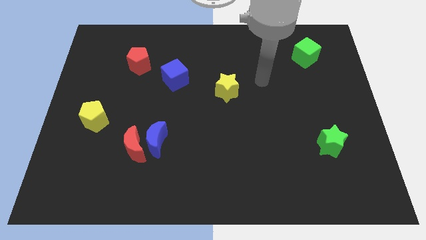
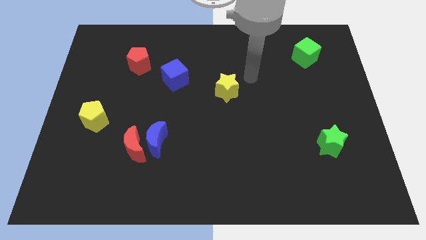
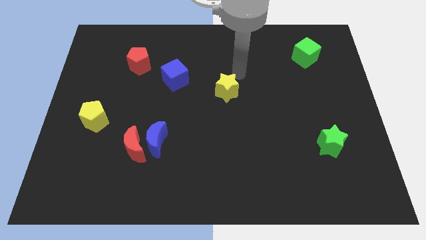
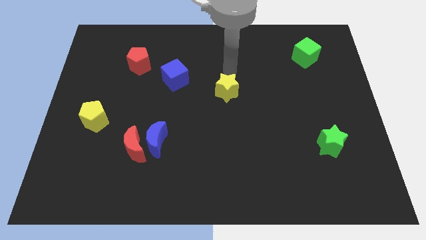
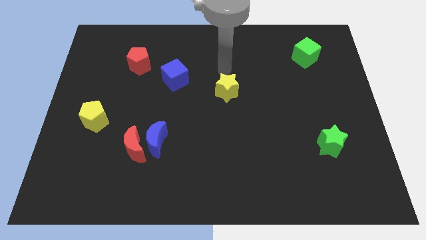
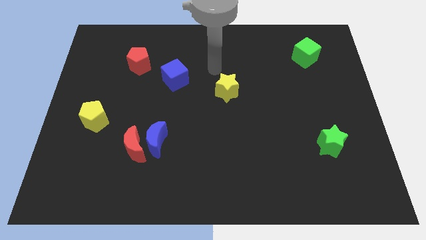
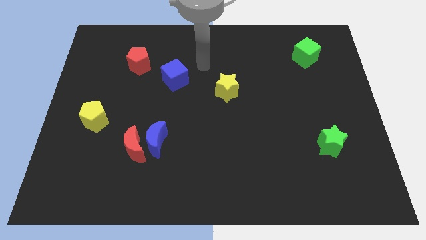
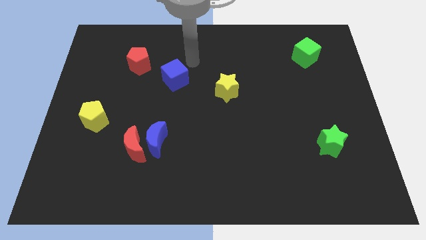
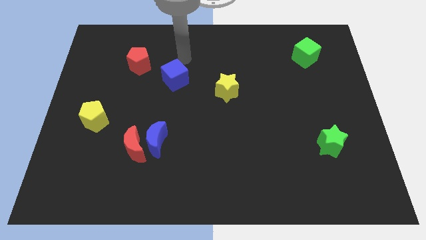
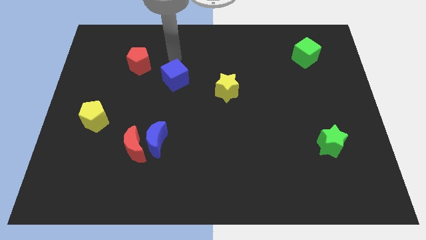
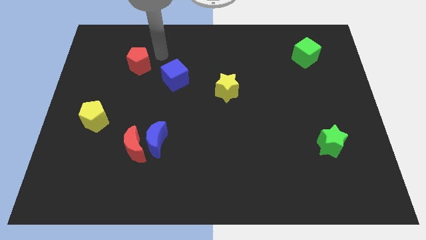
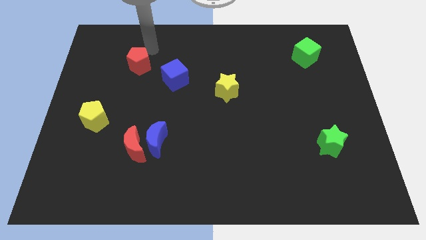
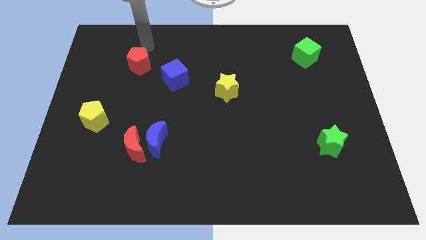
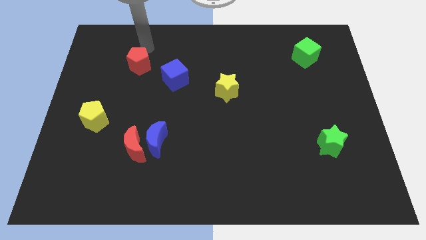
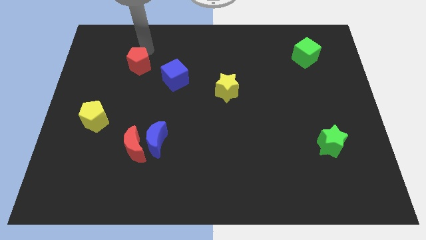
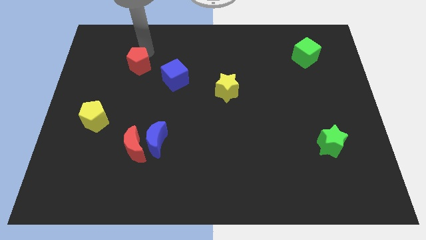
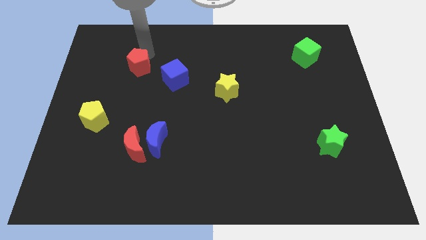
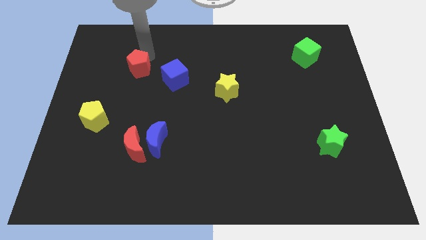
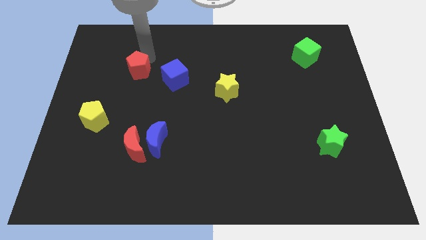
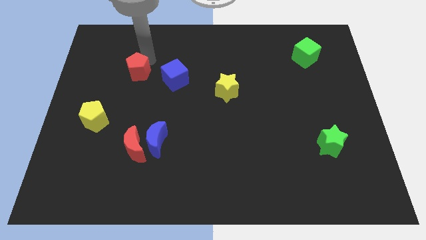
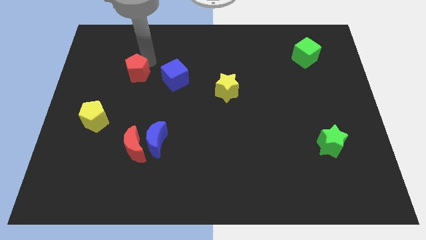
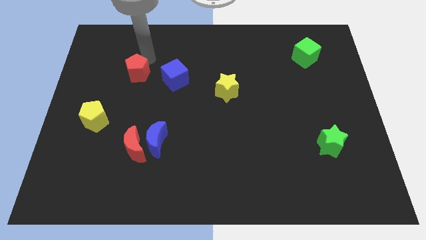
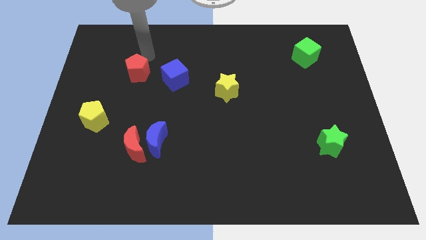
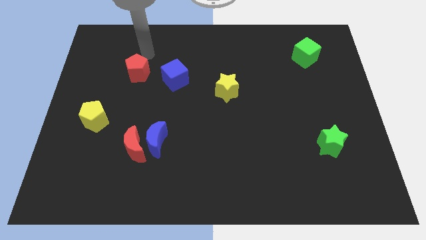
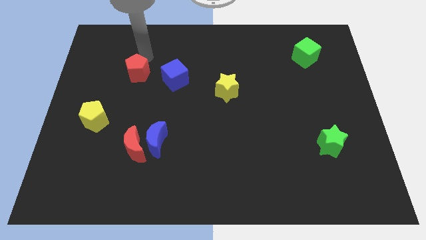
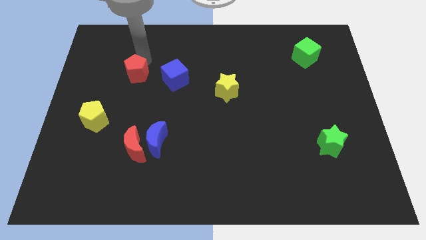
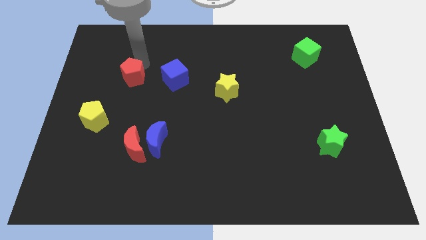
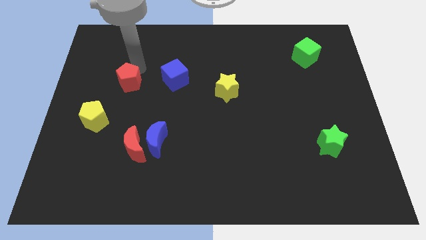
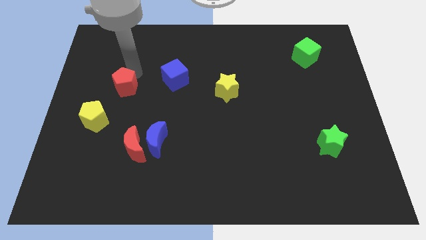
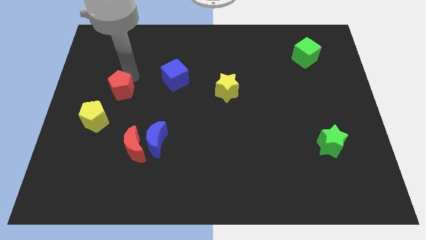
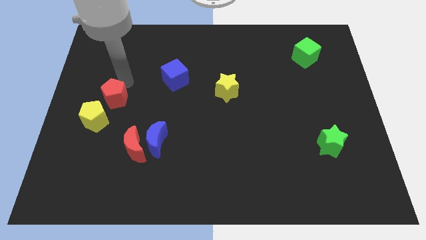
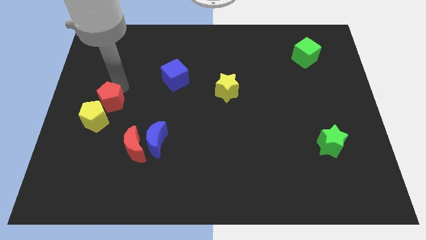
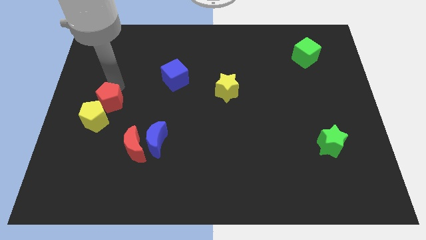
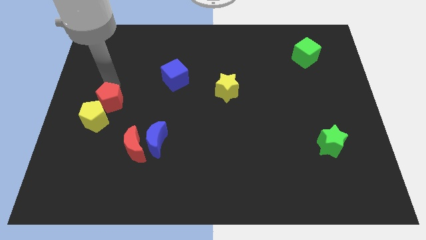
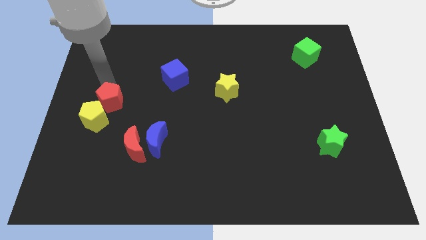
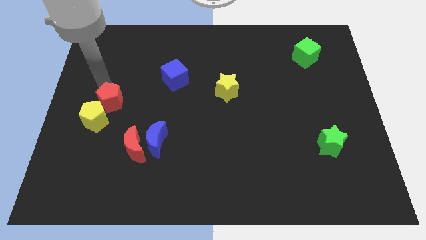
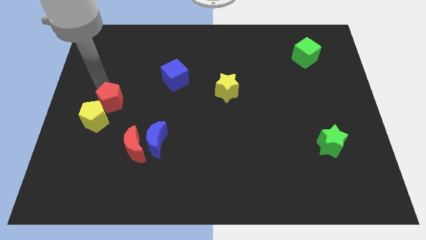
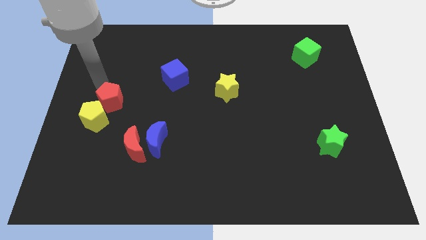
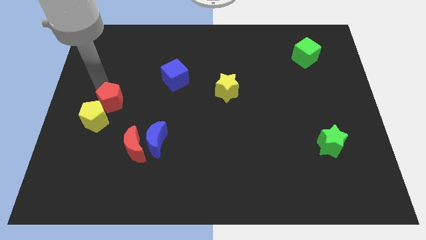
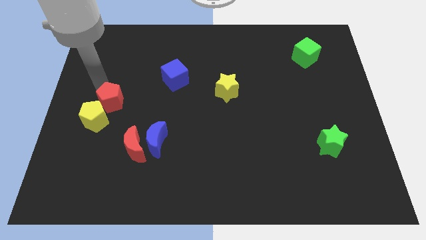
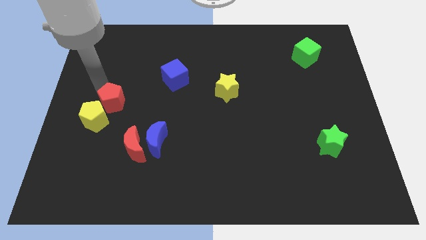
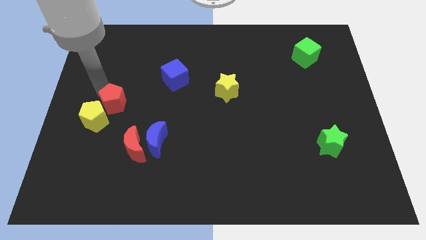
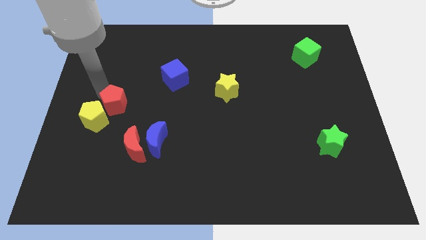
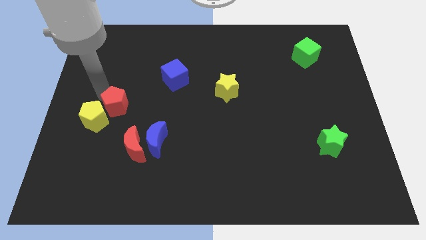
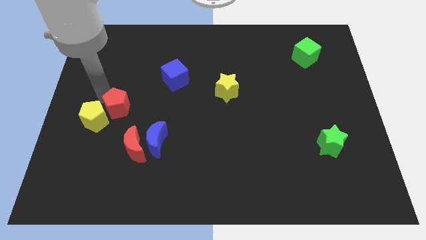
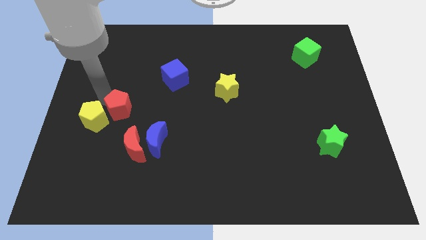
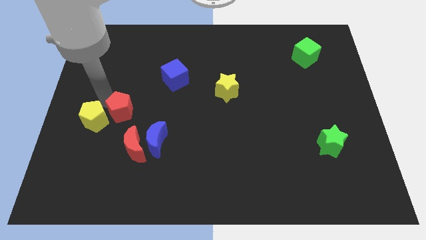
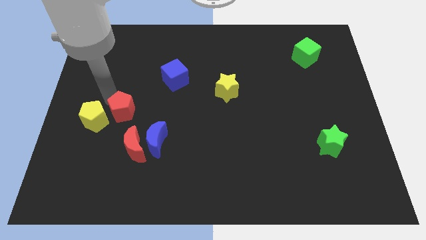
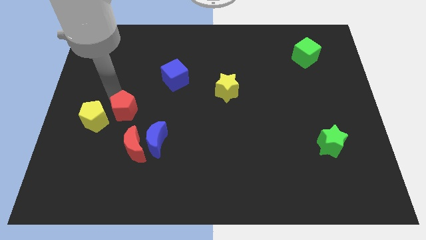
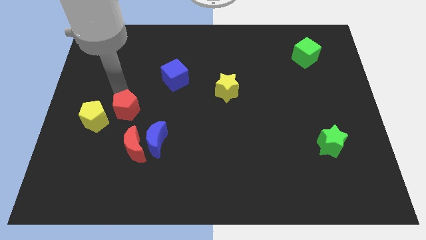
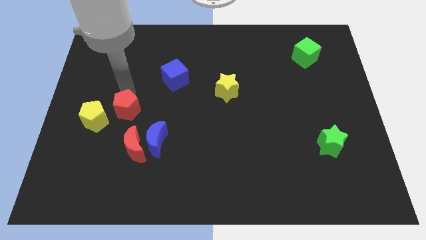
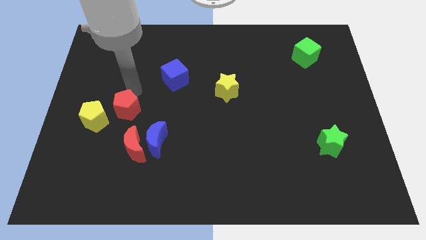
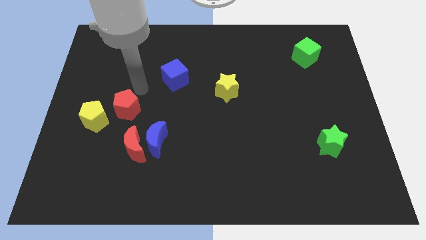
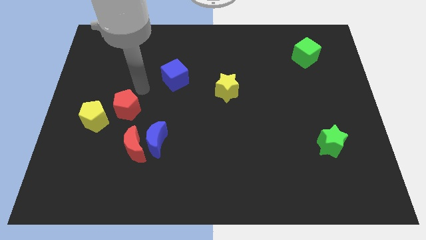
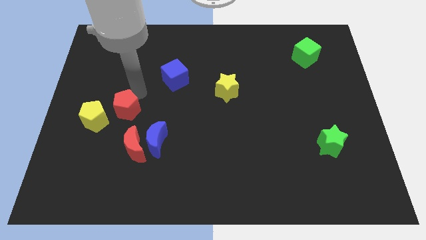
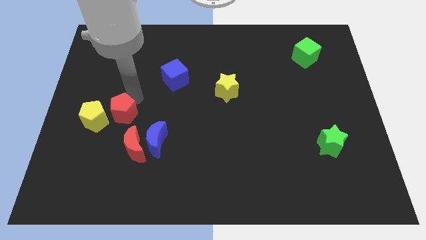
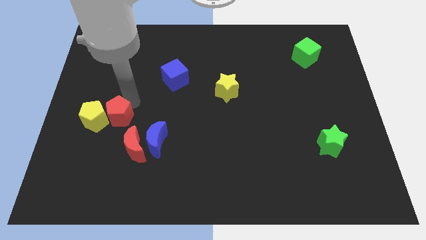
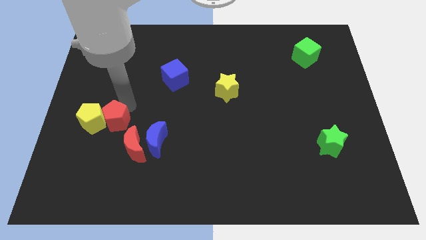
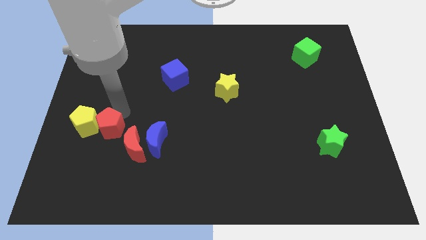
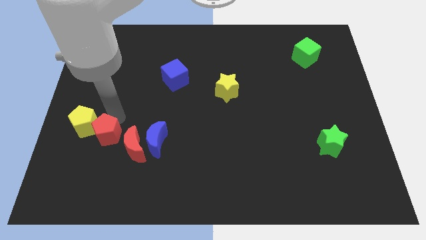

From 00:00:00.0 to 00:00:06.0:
push the red pentagon down

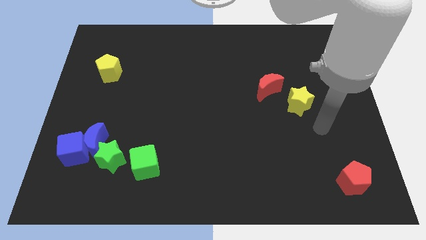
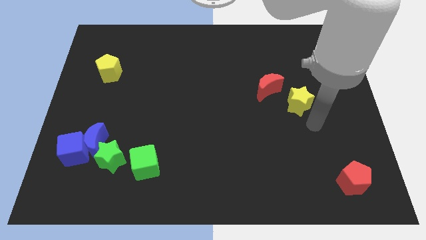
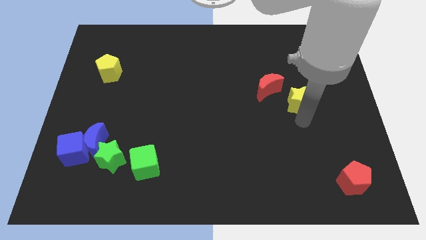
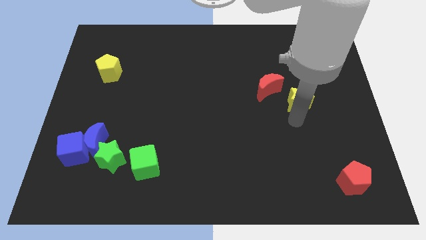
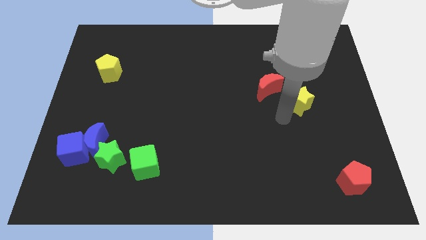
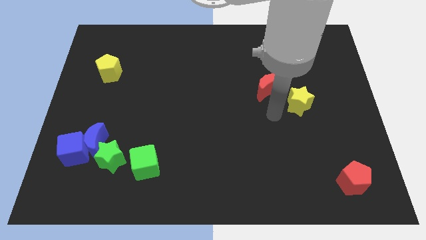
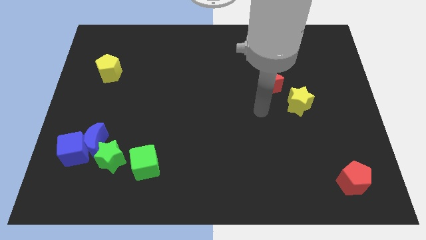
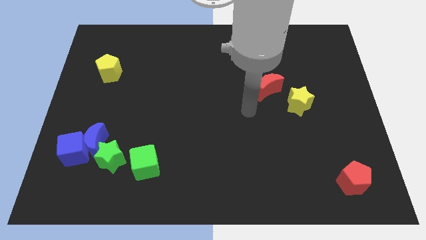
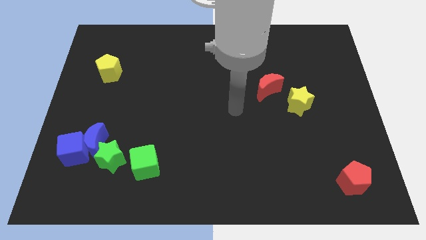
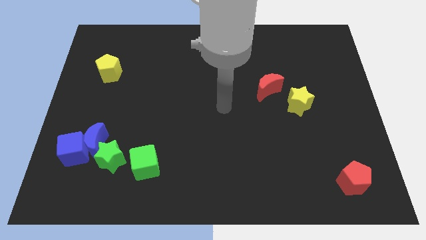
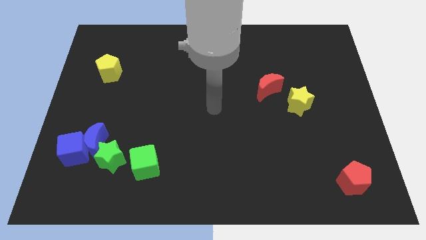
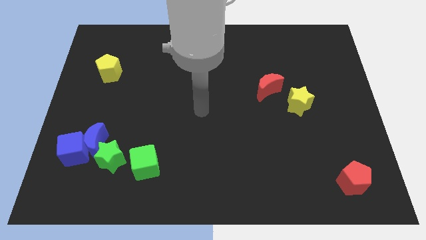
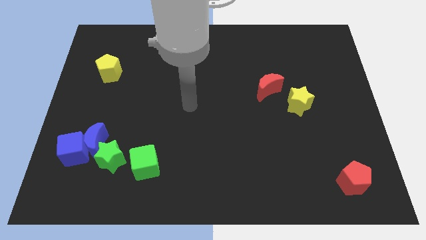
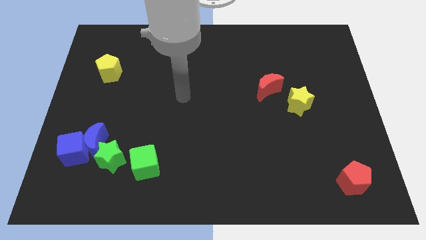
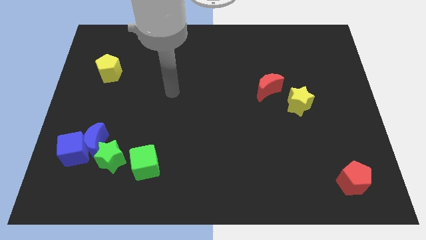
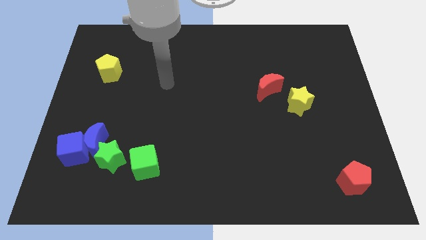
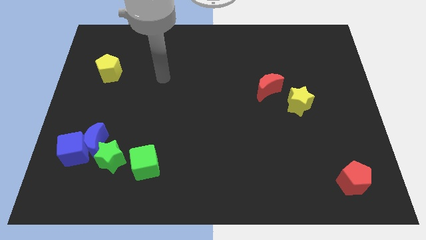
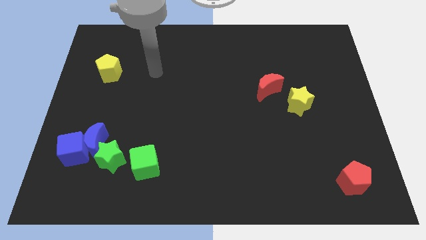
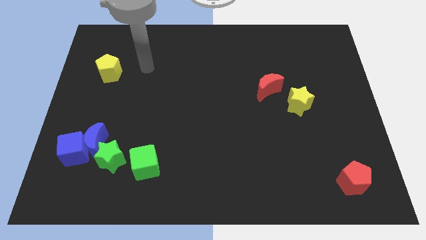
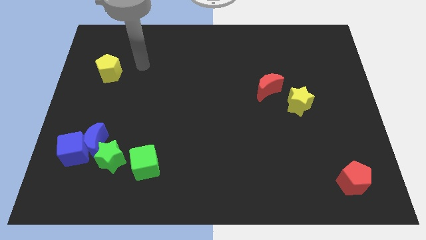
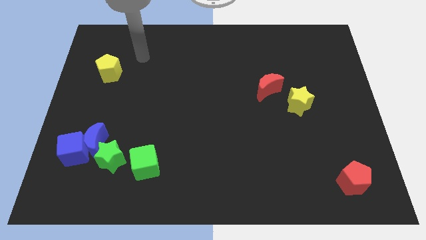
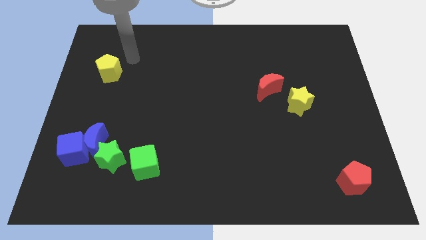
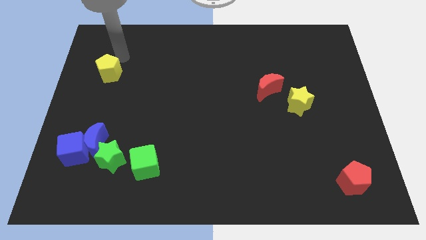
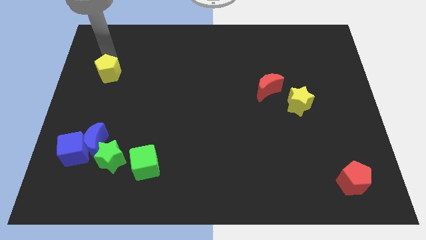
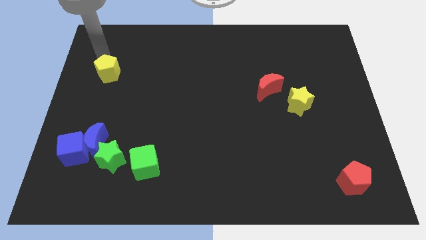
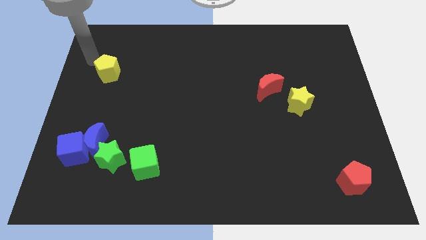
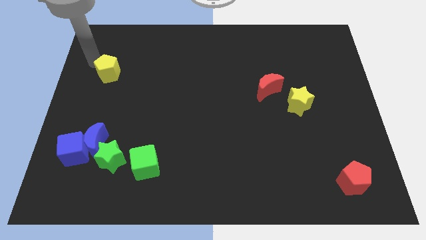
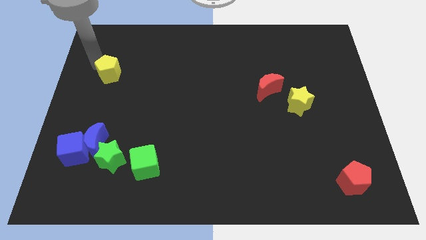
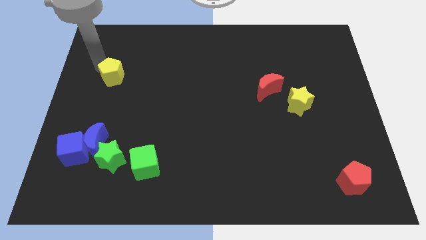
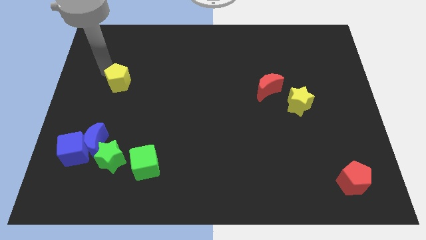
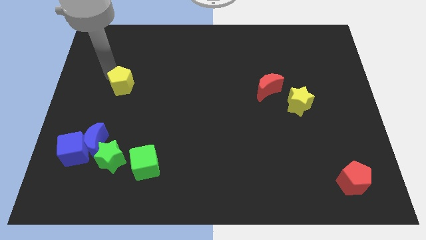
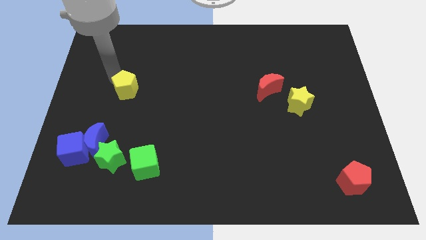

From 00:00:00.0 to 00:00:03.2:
slide the yellow pentagon a little bit down and then right
